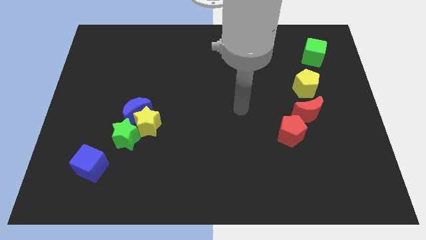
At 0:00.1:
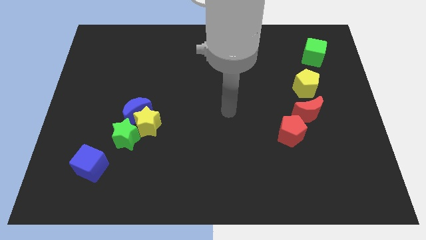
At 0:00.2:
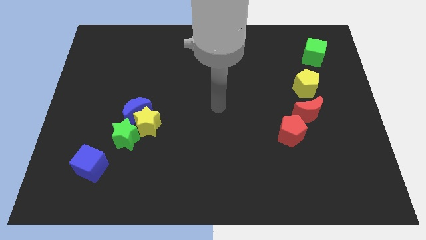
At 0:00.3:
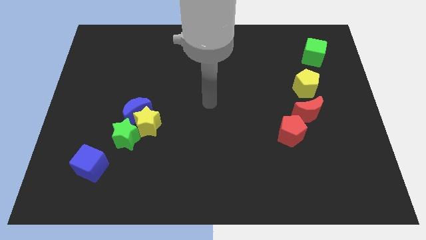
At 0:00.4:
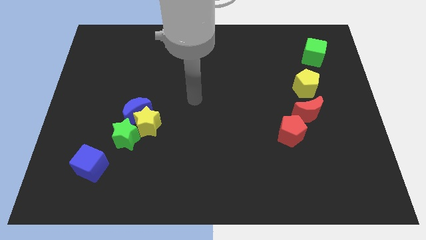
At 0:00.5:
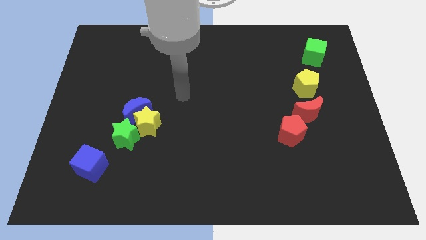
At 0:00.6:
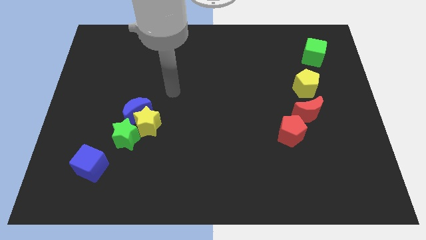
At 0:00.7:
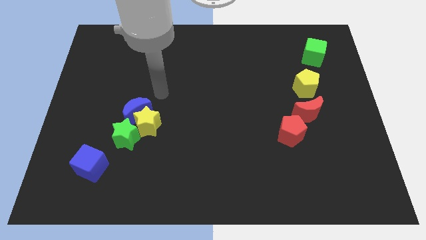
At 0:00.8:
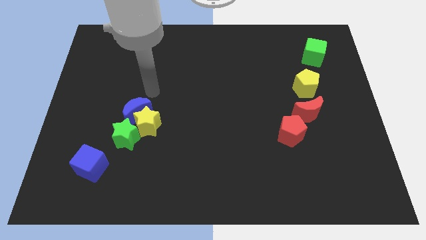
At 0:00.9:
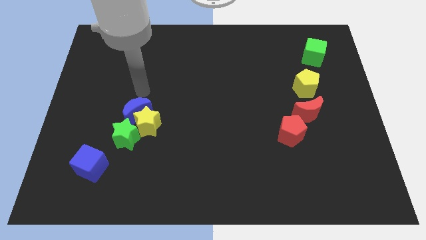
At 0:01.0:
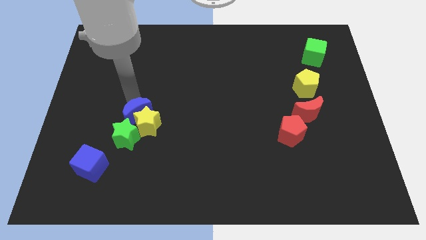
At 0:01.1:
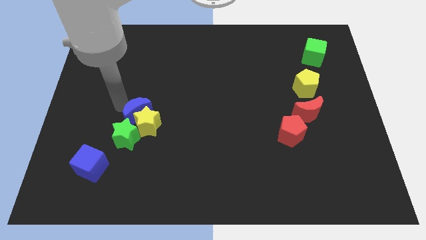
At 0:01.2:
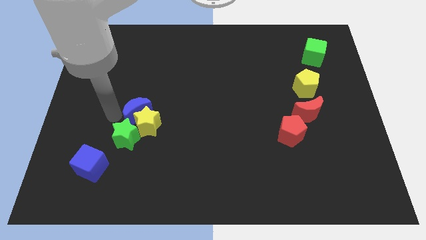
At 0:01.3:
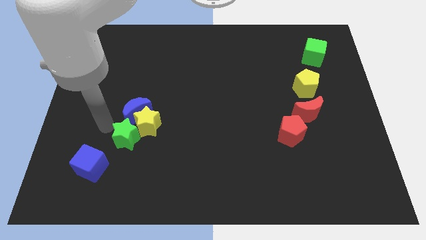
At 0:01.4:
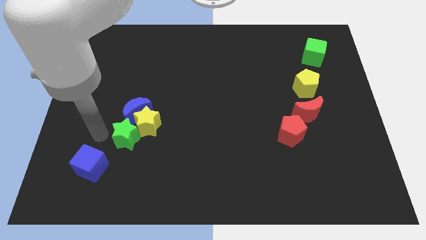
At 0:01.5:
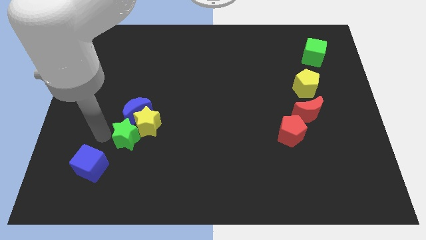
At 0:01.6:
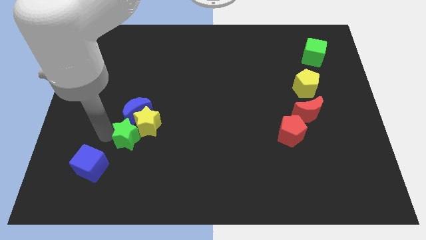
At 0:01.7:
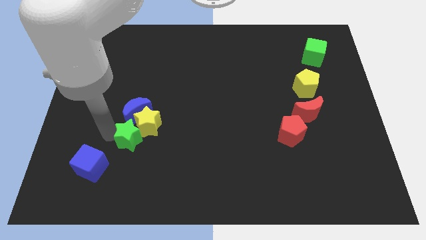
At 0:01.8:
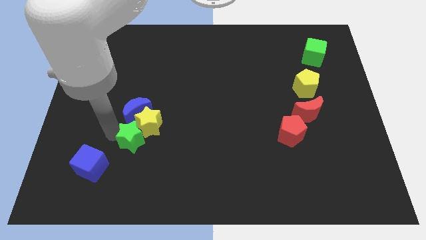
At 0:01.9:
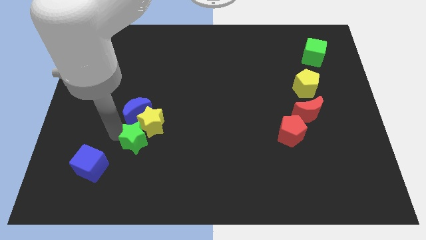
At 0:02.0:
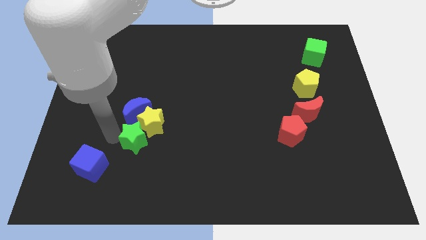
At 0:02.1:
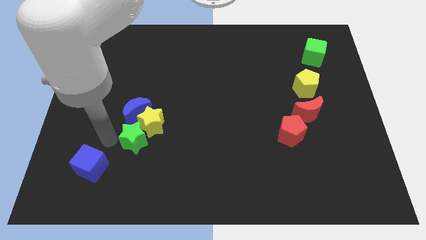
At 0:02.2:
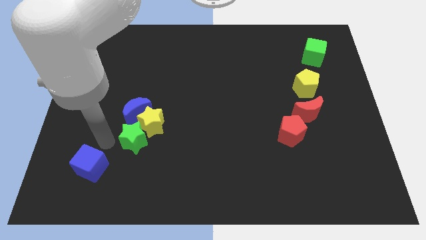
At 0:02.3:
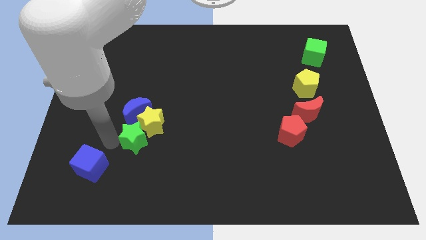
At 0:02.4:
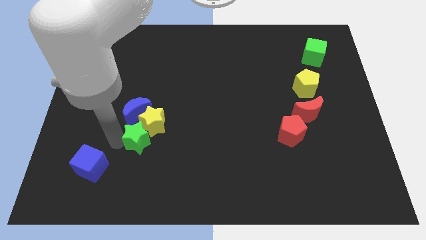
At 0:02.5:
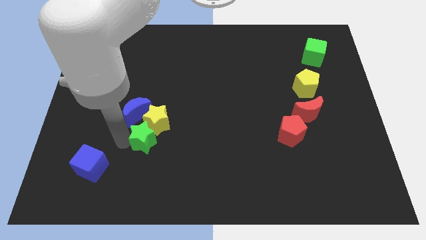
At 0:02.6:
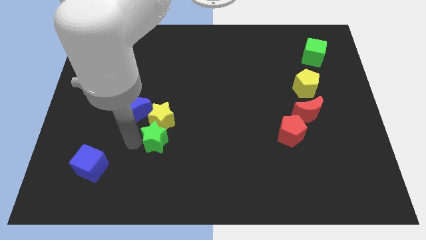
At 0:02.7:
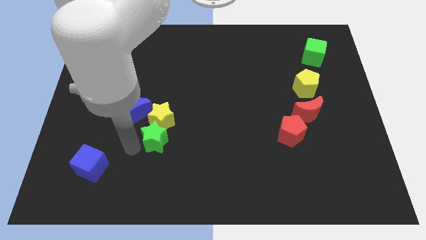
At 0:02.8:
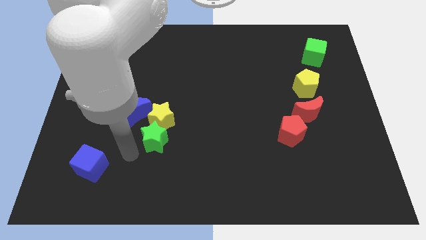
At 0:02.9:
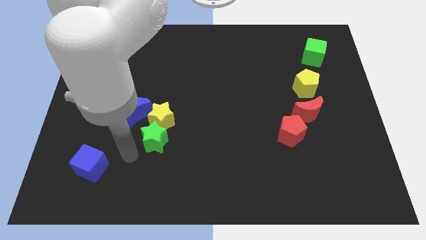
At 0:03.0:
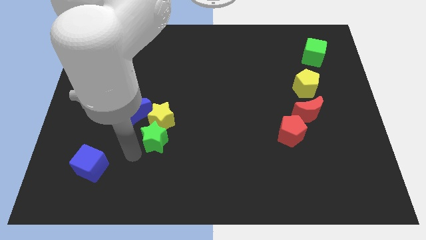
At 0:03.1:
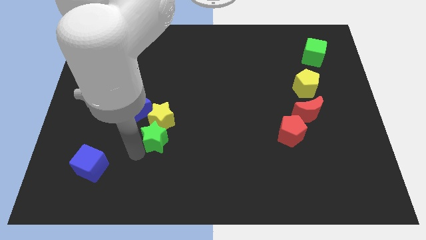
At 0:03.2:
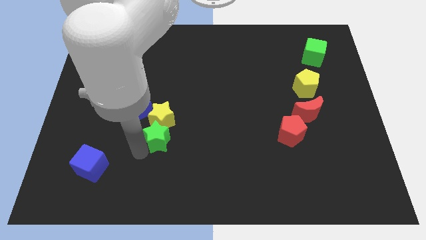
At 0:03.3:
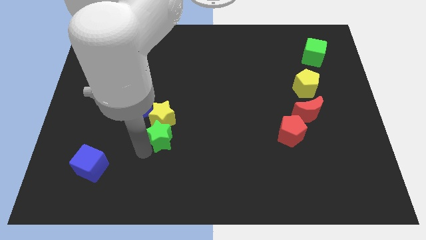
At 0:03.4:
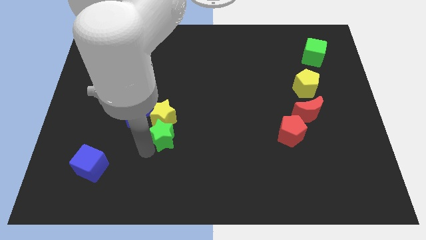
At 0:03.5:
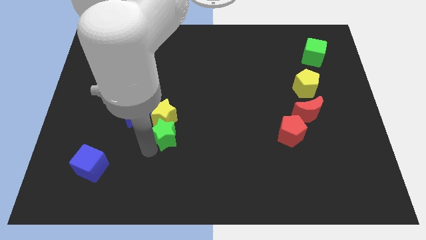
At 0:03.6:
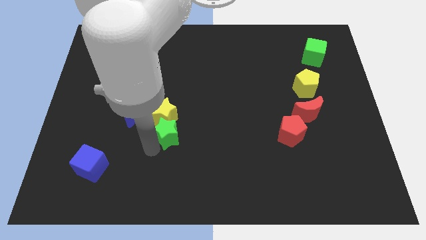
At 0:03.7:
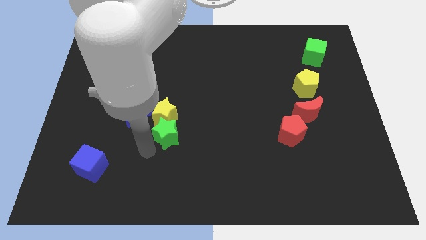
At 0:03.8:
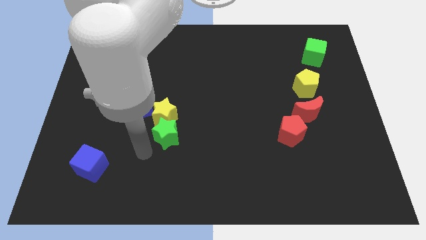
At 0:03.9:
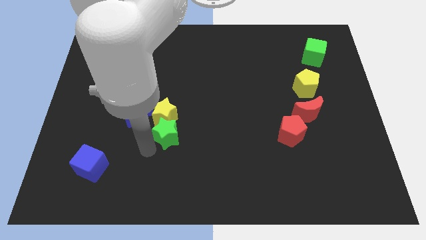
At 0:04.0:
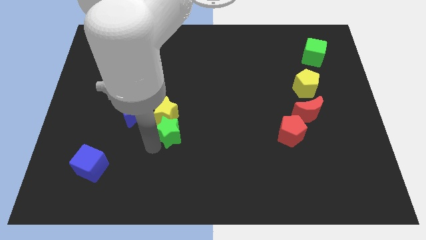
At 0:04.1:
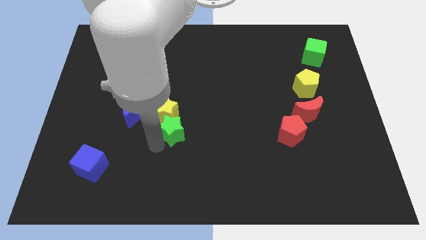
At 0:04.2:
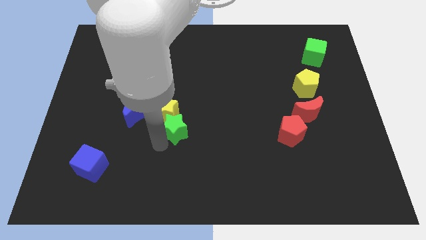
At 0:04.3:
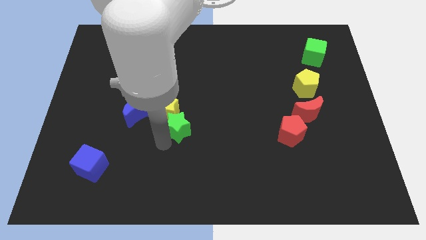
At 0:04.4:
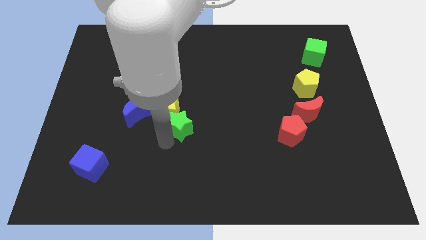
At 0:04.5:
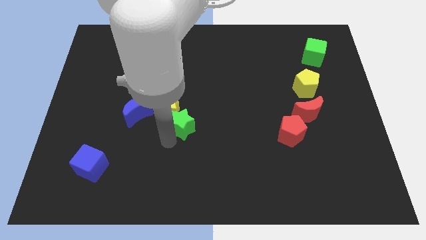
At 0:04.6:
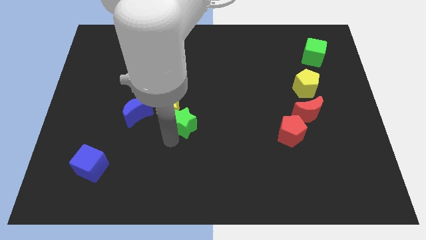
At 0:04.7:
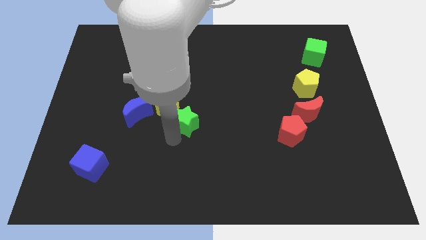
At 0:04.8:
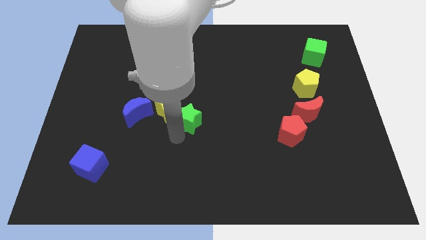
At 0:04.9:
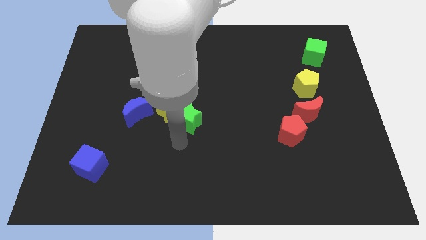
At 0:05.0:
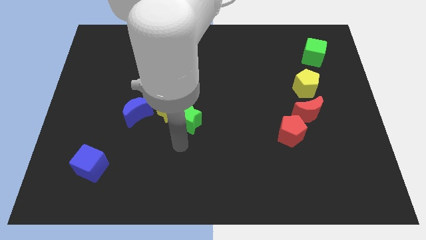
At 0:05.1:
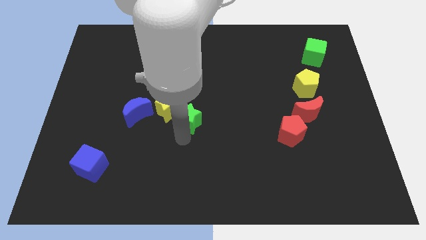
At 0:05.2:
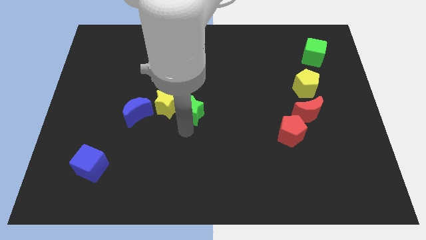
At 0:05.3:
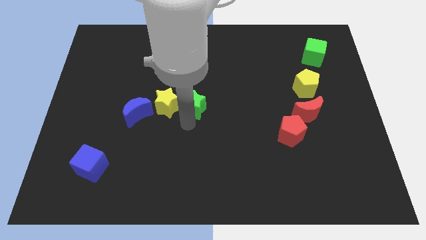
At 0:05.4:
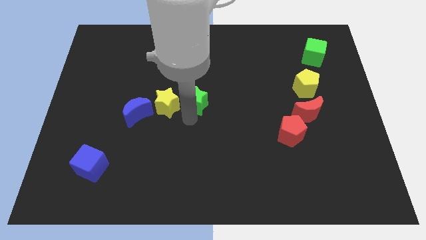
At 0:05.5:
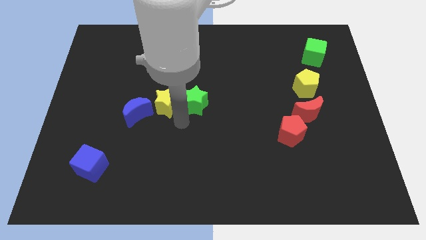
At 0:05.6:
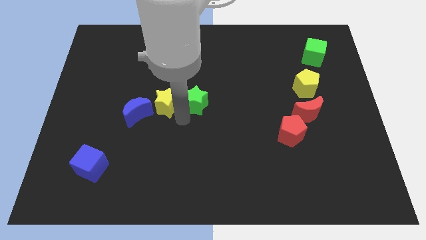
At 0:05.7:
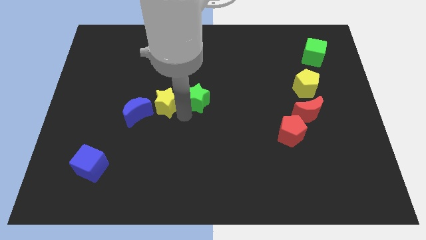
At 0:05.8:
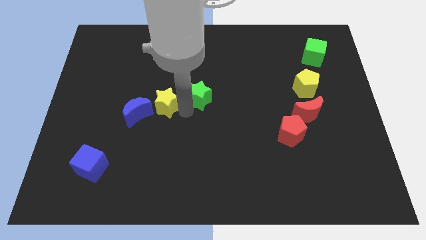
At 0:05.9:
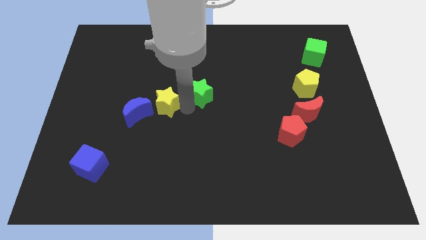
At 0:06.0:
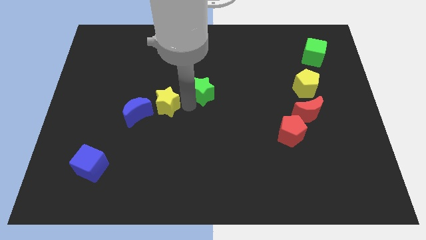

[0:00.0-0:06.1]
push the green star up and then to the right

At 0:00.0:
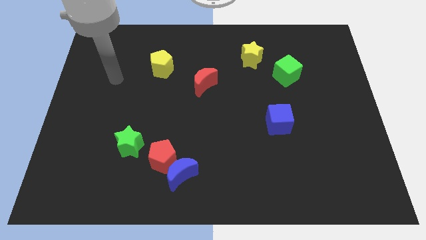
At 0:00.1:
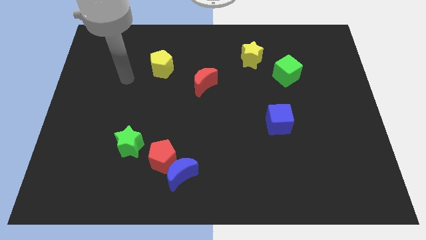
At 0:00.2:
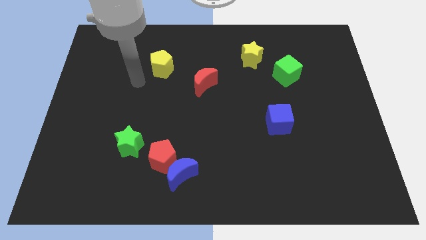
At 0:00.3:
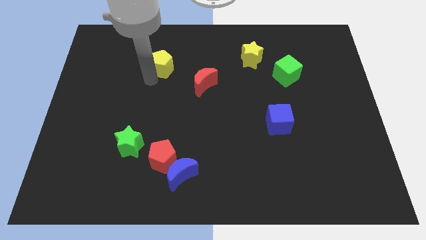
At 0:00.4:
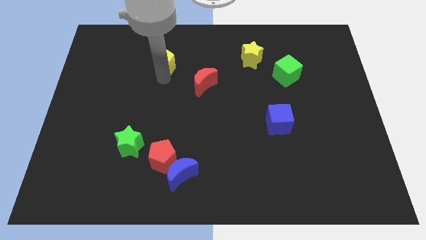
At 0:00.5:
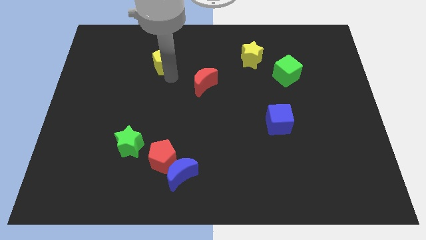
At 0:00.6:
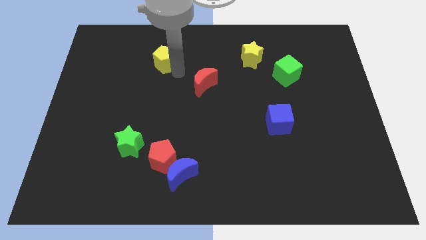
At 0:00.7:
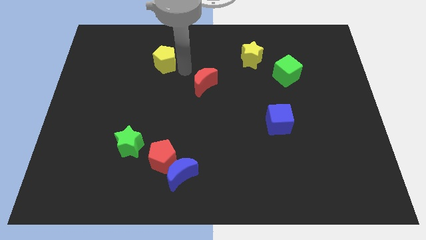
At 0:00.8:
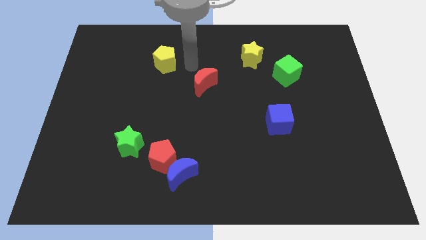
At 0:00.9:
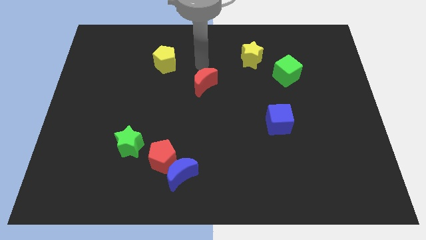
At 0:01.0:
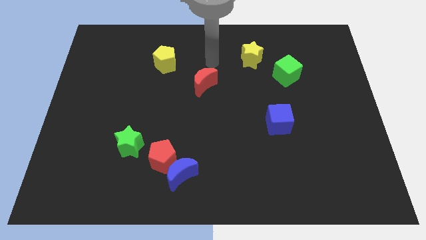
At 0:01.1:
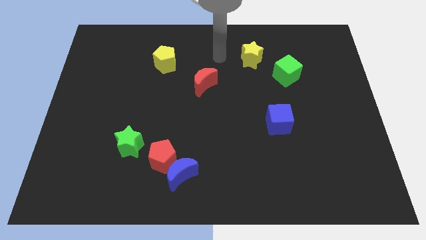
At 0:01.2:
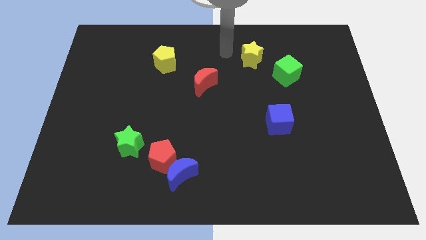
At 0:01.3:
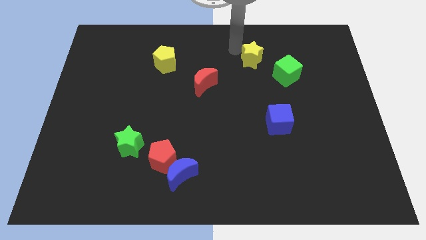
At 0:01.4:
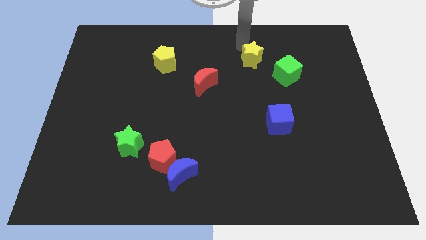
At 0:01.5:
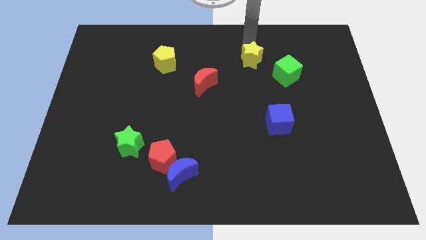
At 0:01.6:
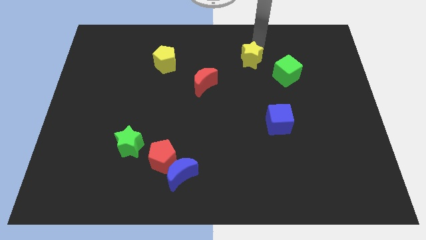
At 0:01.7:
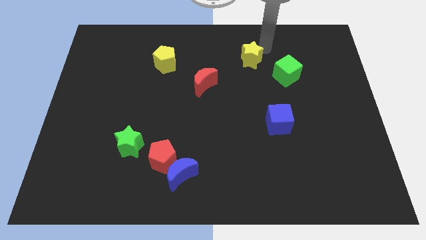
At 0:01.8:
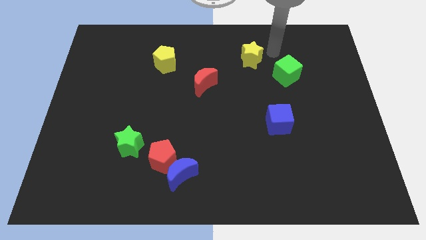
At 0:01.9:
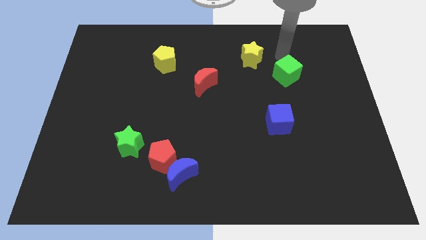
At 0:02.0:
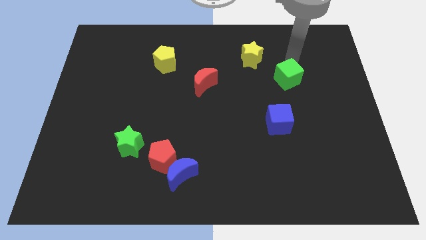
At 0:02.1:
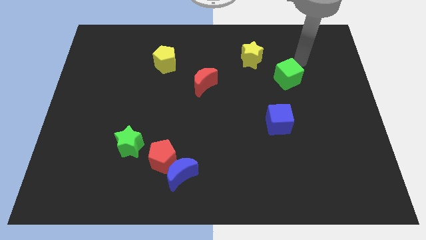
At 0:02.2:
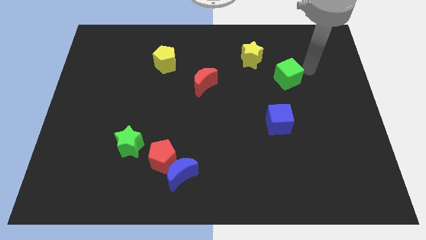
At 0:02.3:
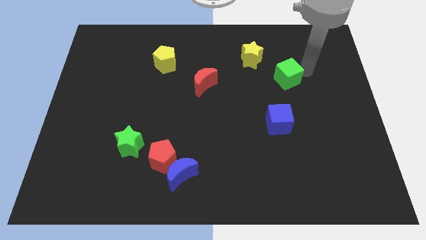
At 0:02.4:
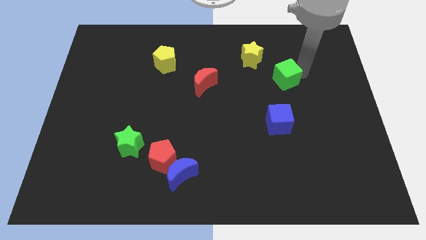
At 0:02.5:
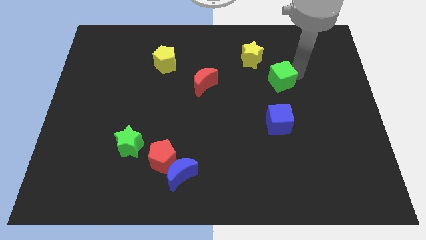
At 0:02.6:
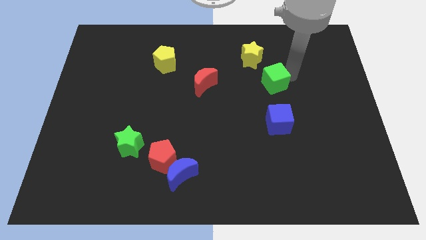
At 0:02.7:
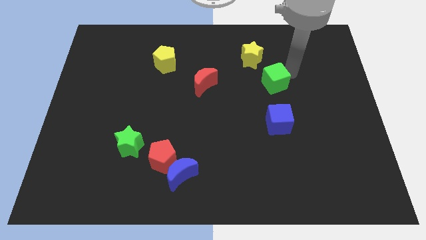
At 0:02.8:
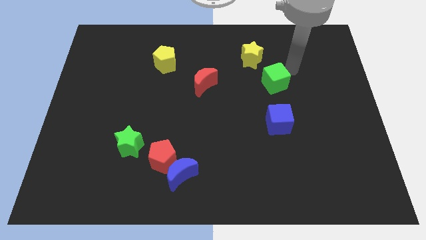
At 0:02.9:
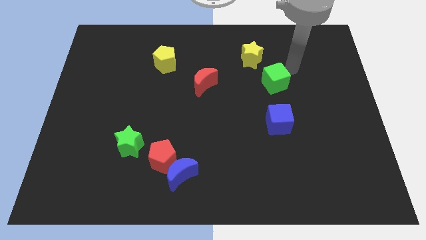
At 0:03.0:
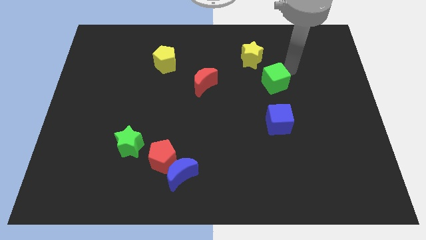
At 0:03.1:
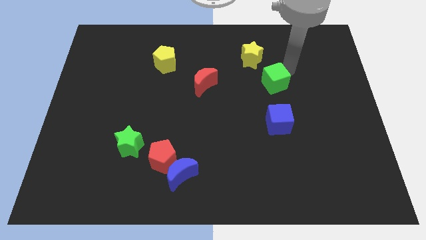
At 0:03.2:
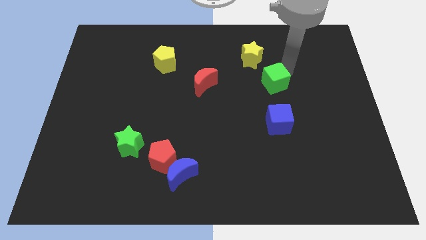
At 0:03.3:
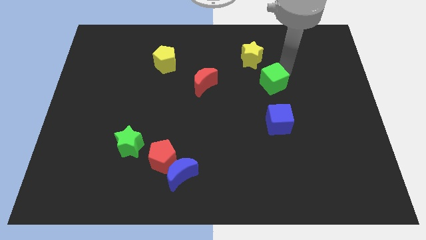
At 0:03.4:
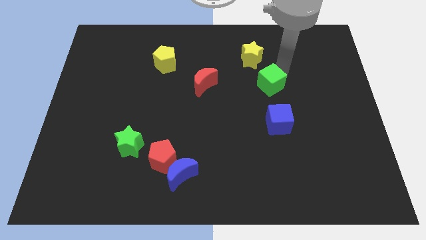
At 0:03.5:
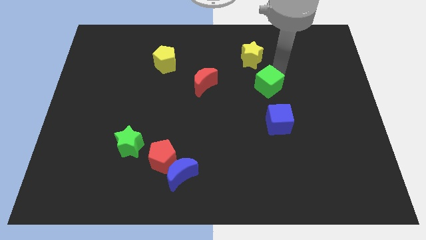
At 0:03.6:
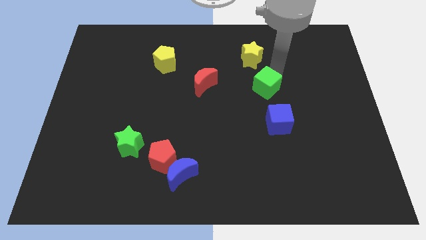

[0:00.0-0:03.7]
slide the green cube a little diagonally downwards and to the left
